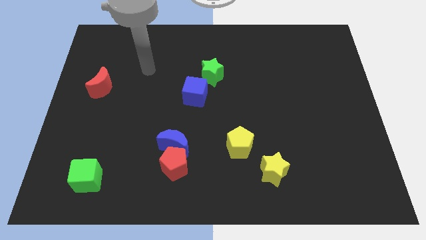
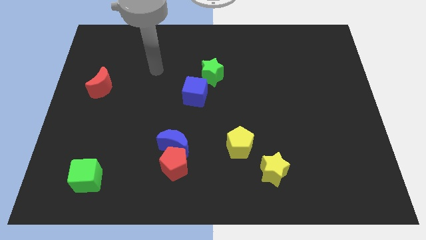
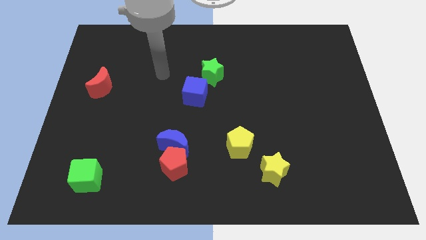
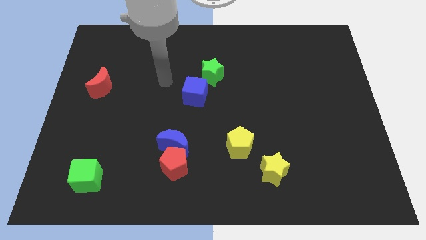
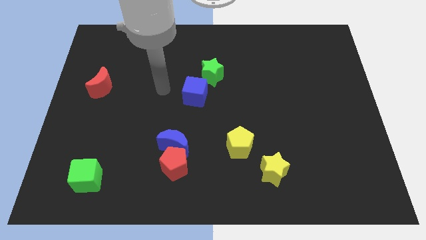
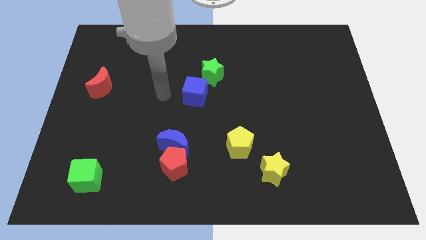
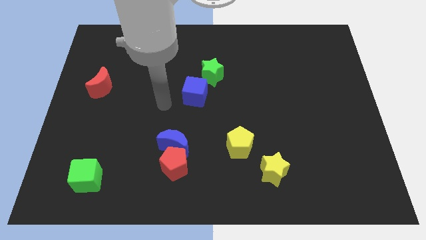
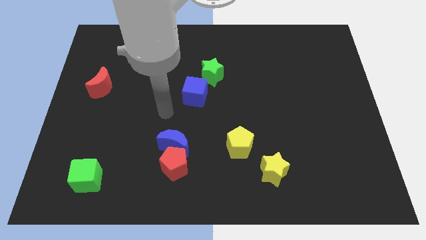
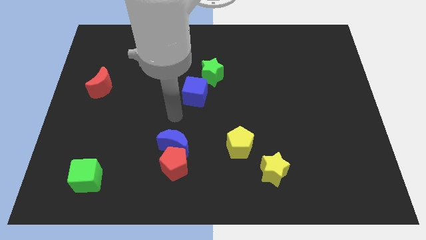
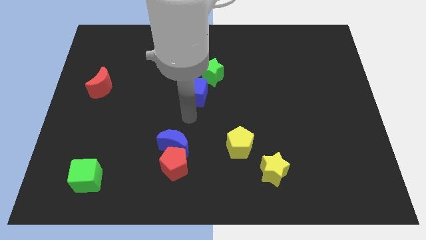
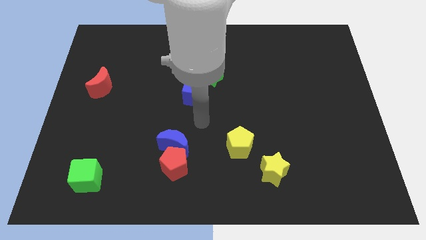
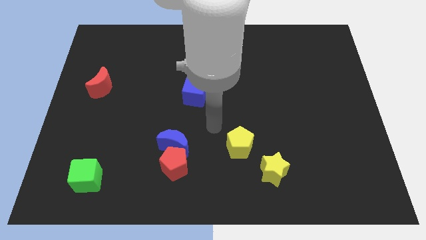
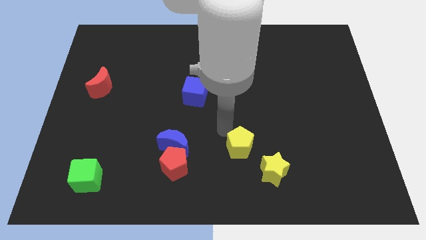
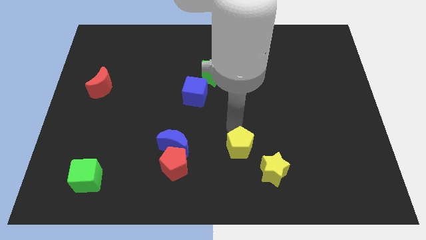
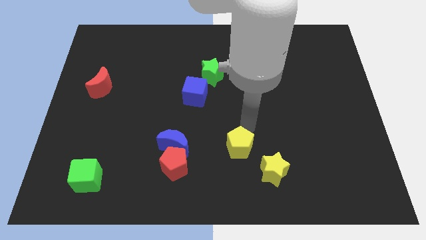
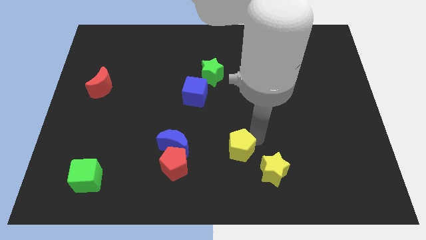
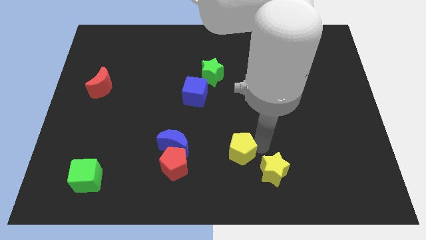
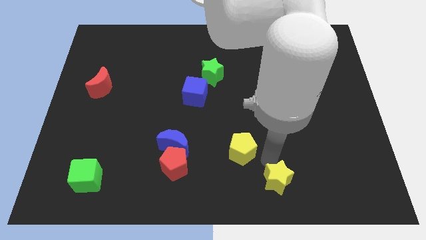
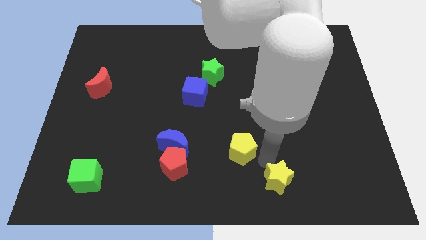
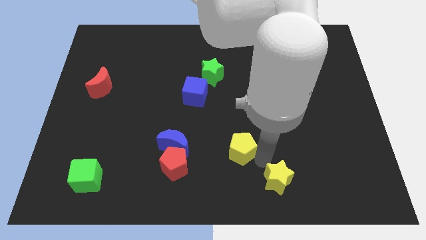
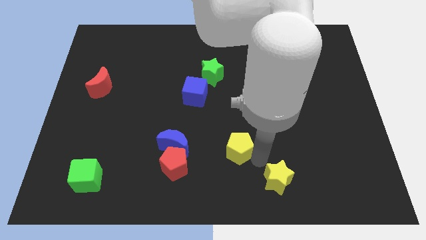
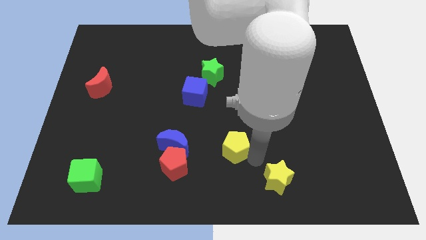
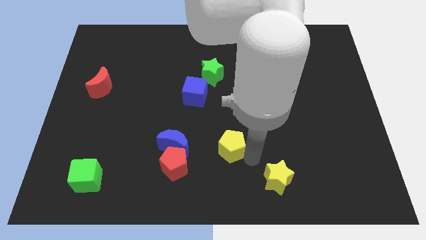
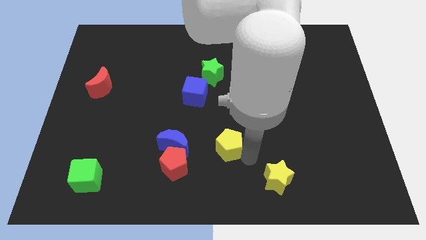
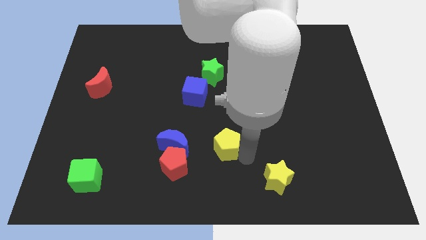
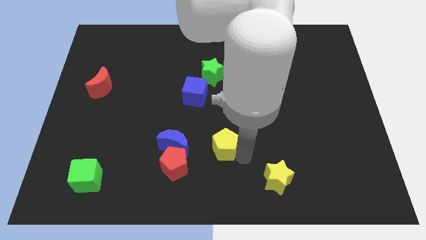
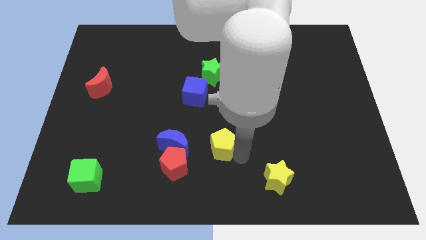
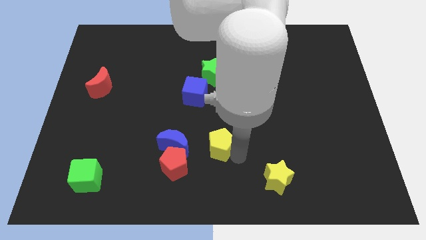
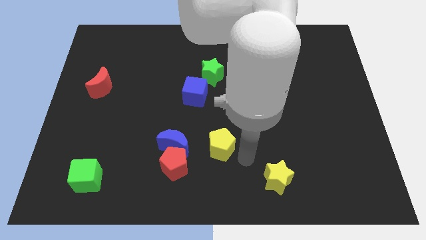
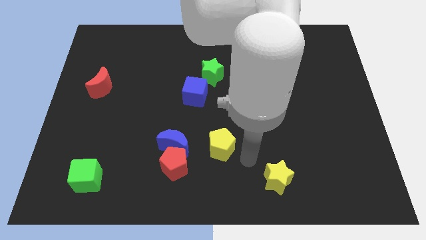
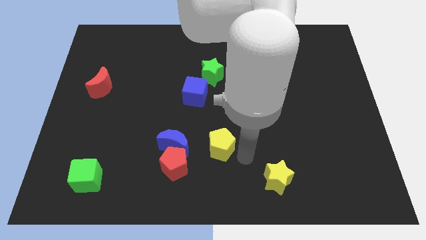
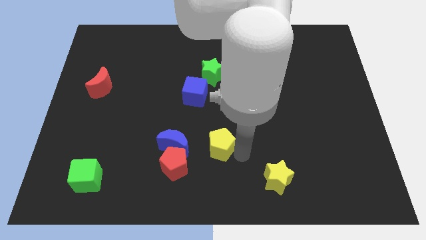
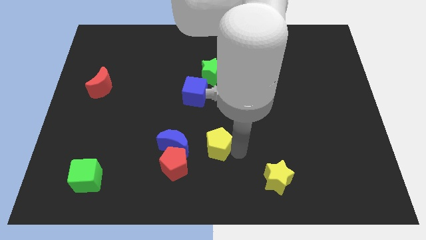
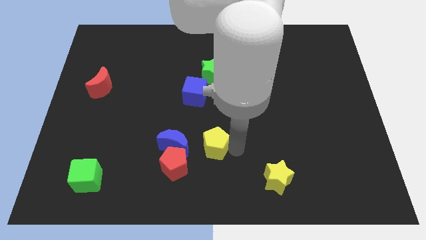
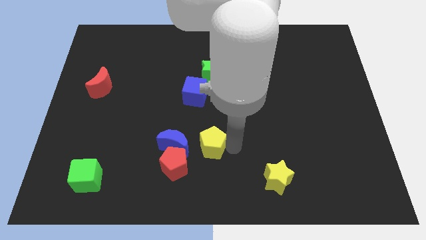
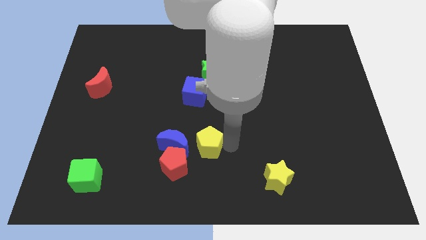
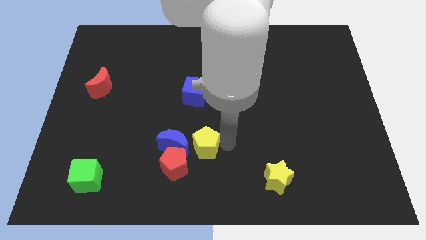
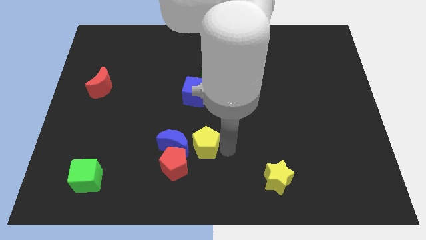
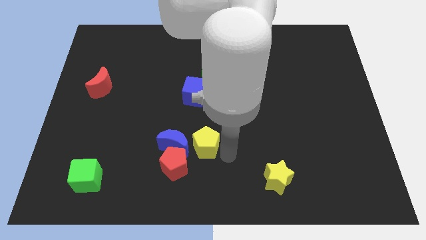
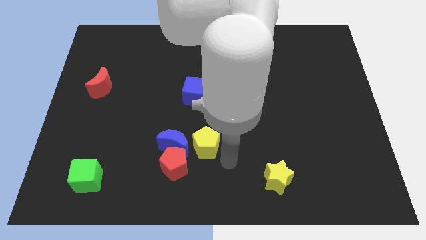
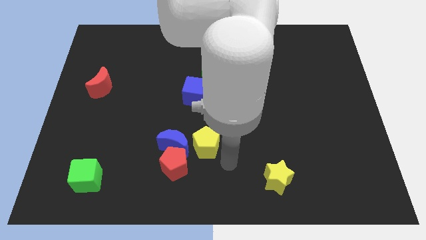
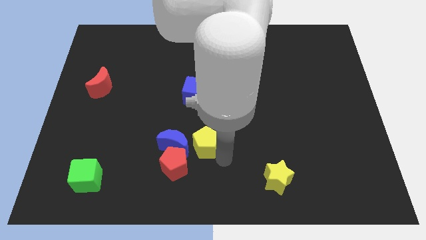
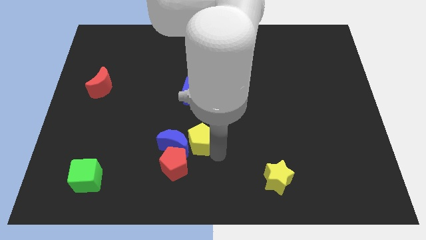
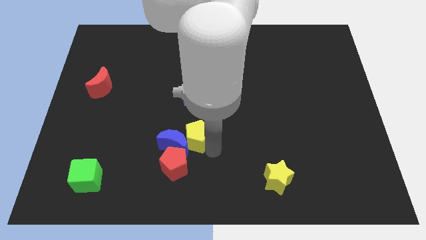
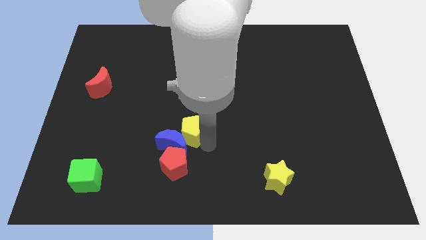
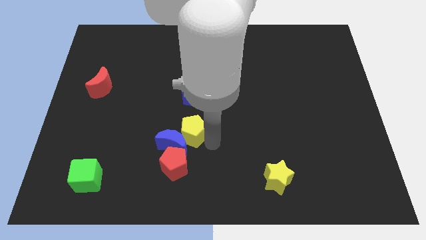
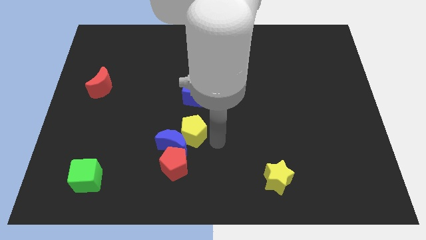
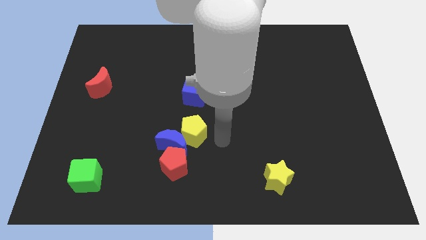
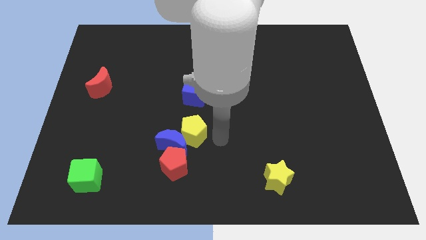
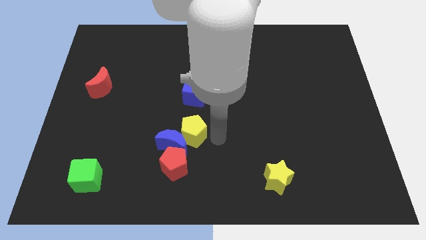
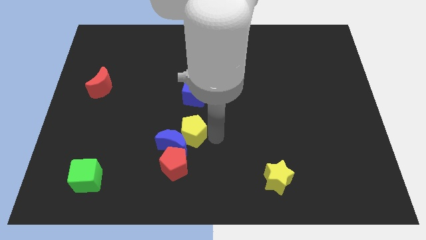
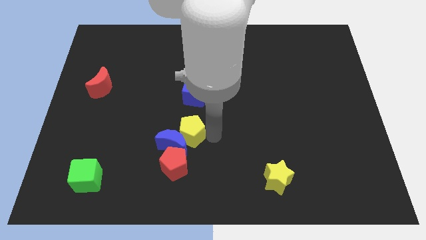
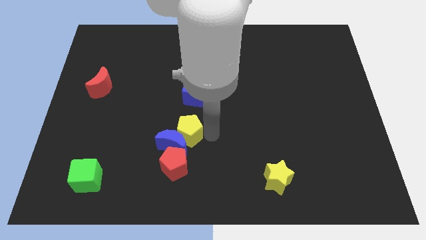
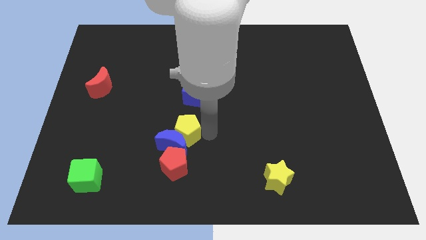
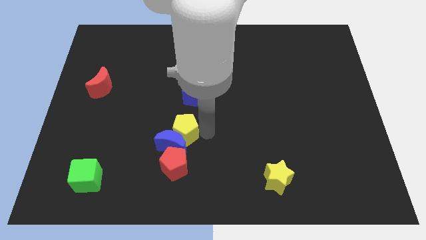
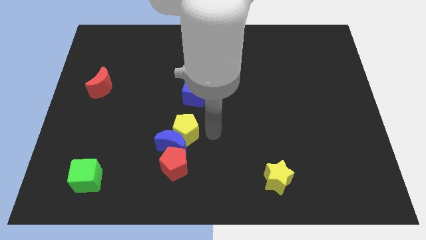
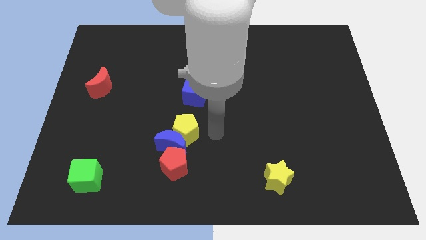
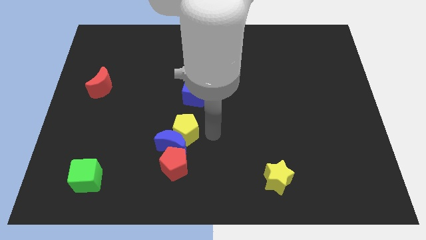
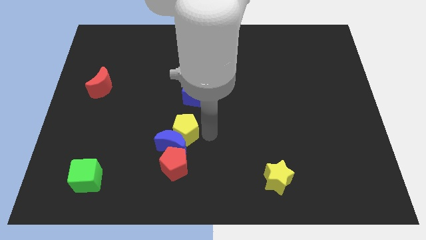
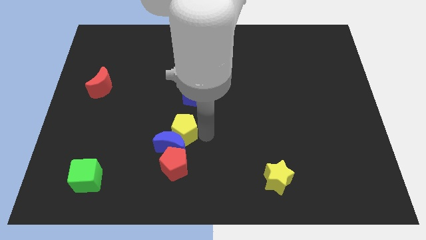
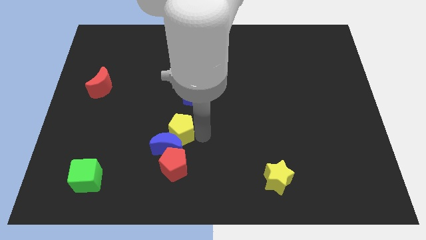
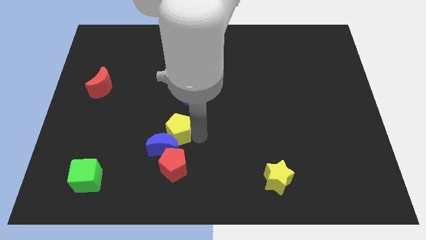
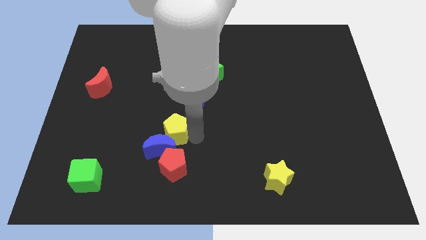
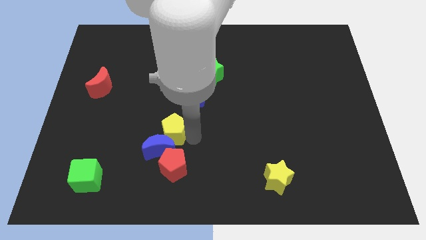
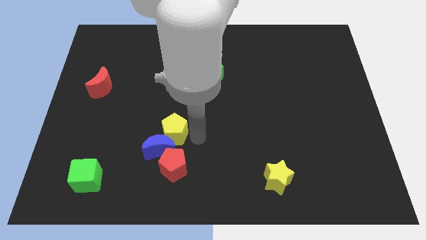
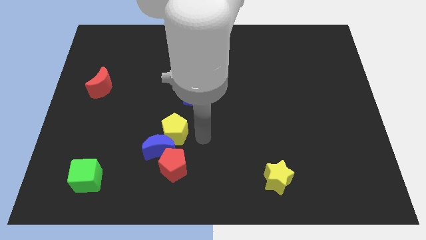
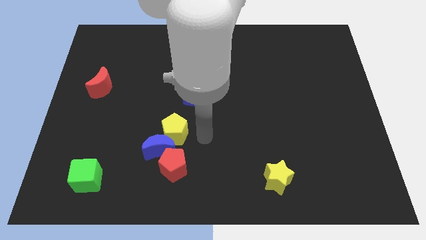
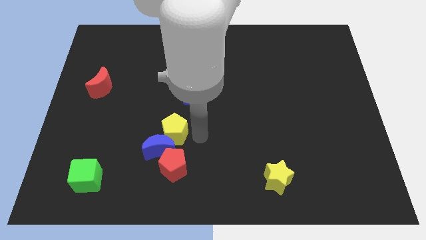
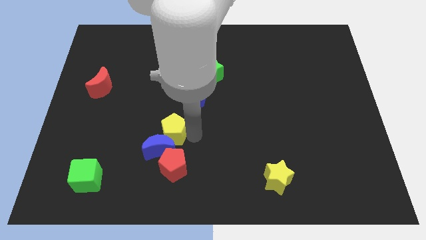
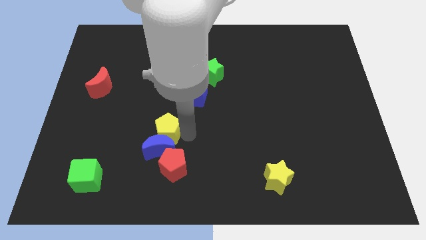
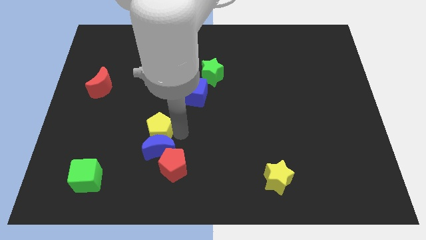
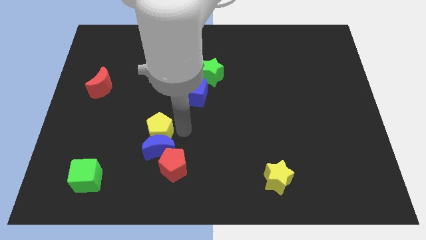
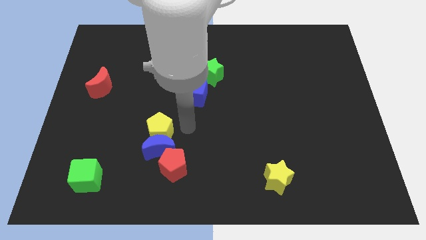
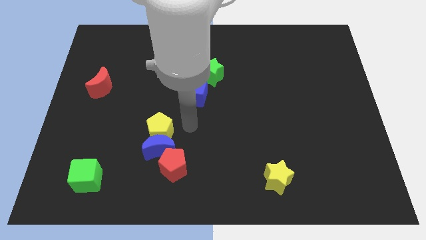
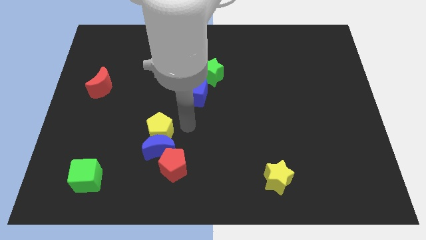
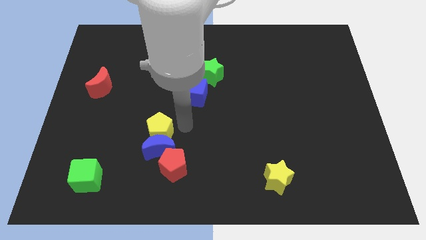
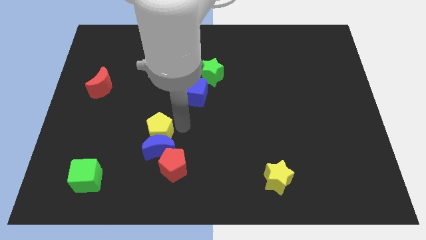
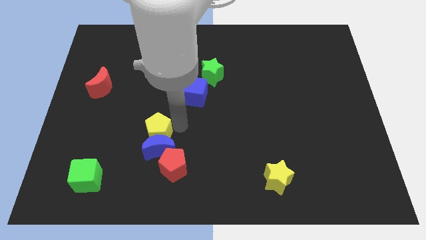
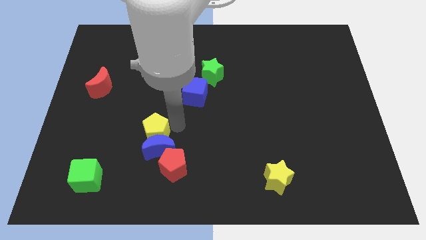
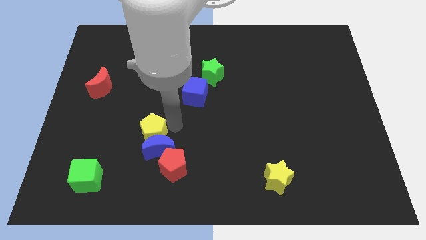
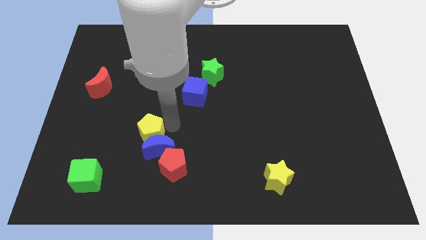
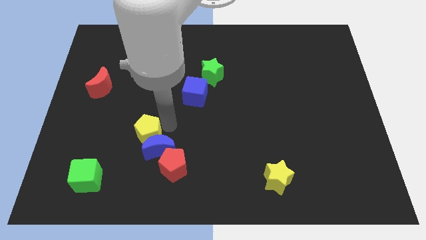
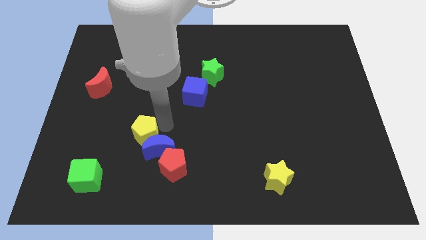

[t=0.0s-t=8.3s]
push the yellow pentagon left
